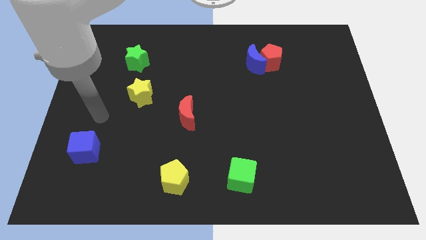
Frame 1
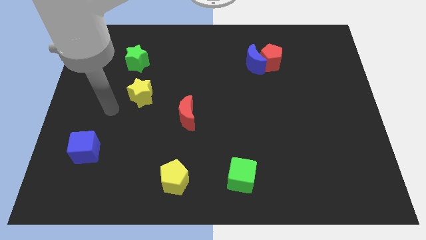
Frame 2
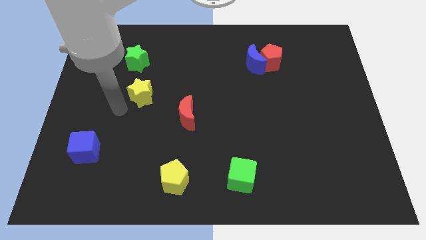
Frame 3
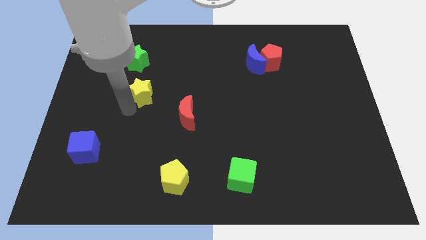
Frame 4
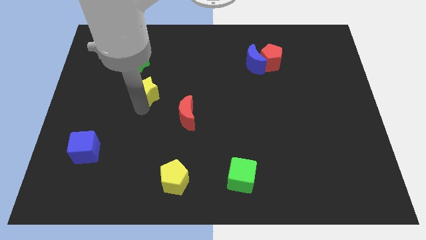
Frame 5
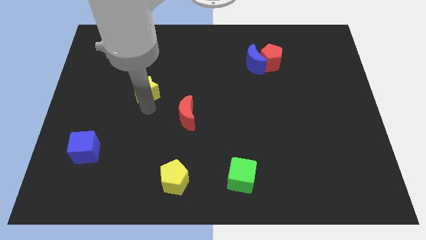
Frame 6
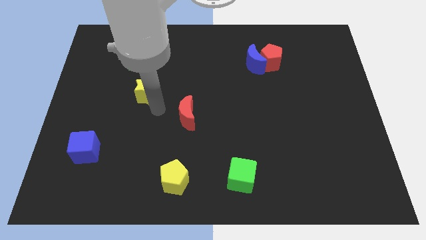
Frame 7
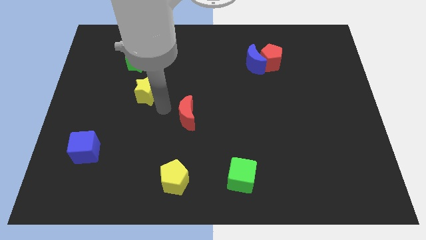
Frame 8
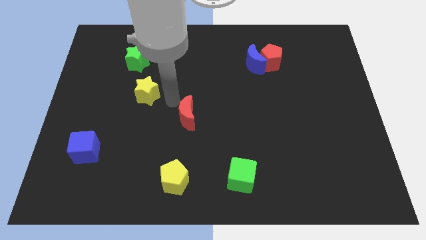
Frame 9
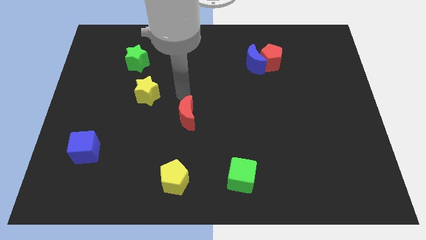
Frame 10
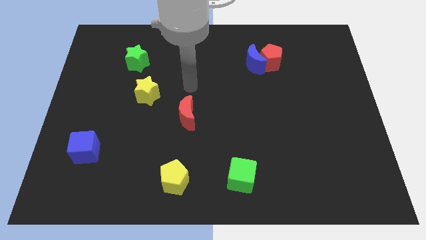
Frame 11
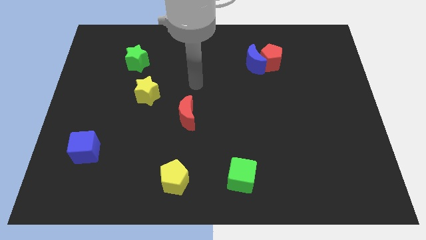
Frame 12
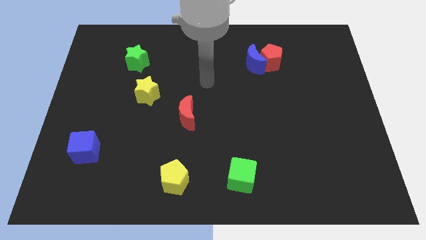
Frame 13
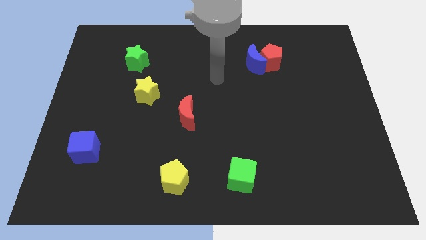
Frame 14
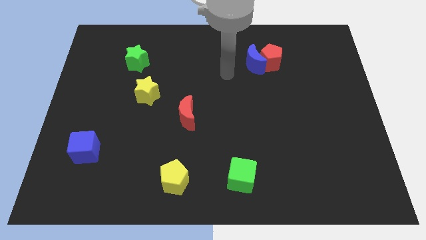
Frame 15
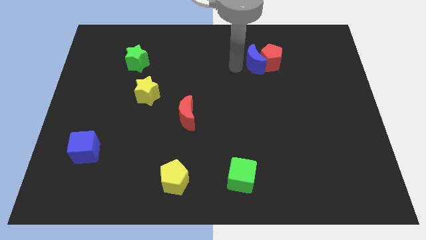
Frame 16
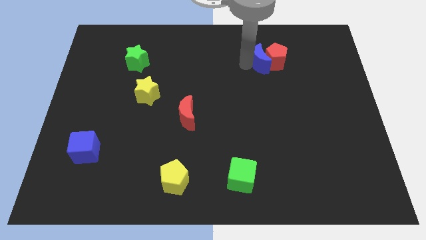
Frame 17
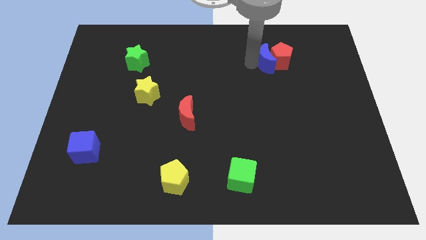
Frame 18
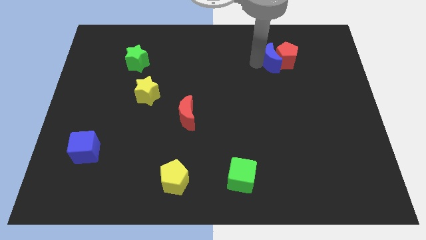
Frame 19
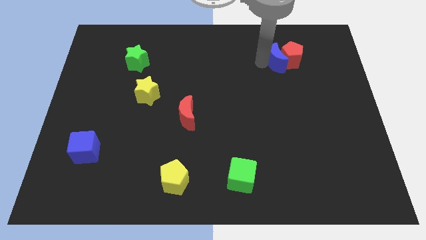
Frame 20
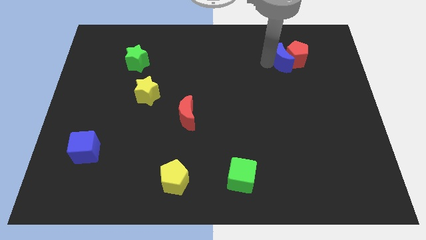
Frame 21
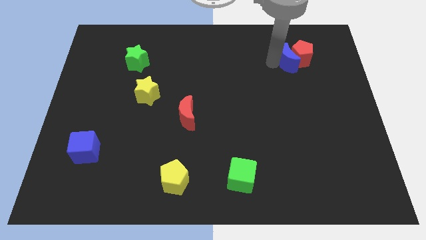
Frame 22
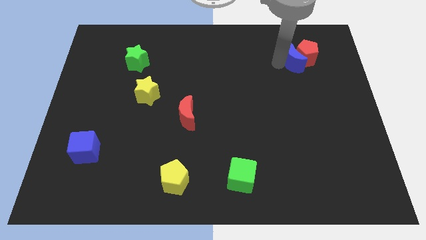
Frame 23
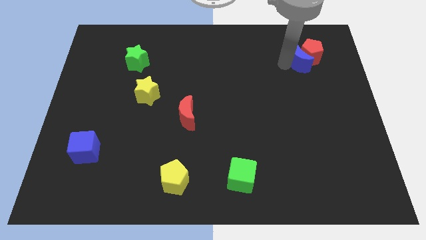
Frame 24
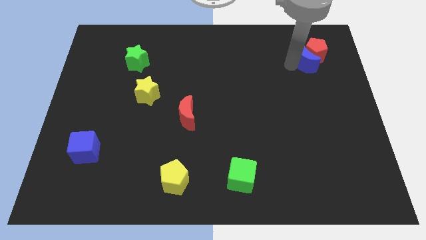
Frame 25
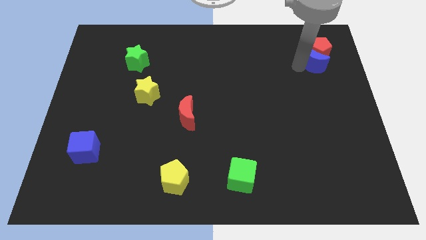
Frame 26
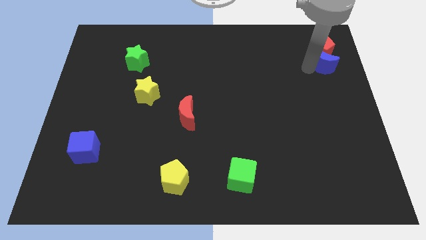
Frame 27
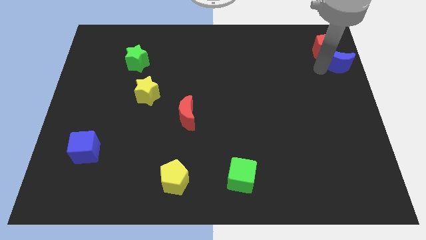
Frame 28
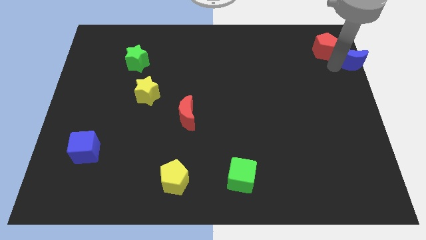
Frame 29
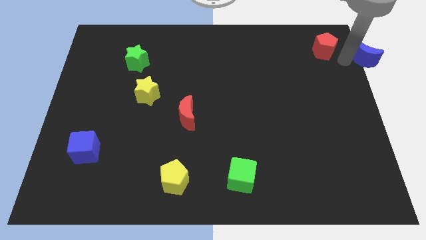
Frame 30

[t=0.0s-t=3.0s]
pull the red pentagon apart from the blue moon

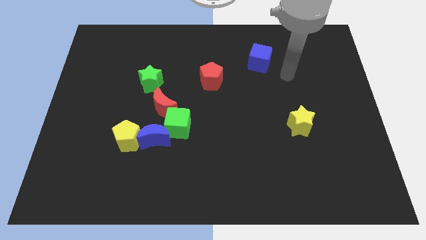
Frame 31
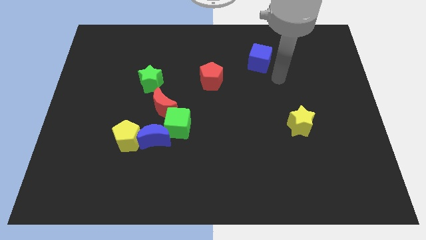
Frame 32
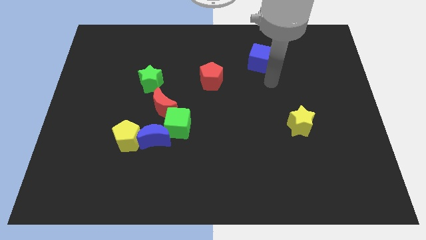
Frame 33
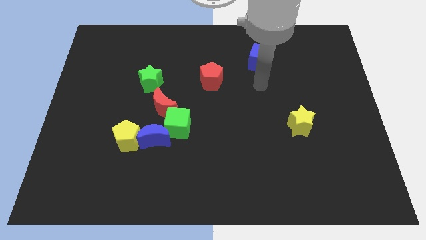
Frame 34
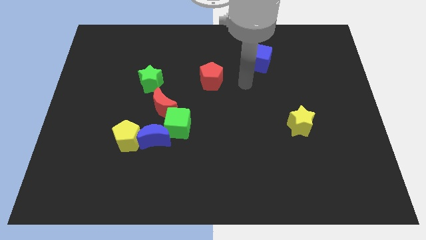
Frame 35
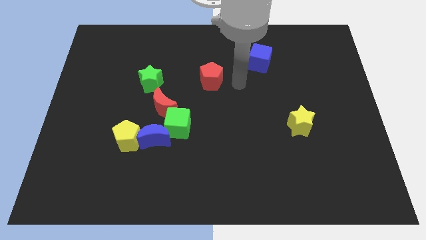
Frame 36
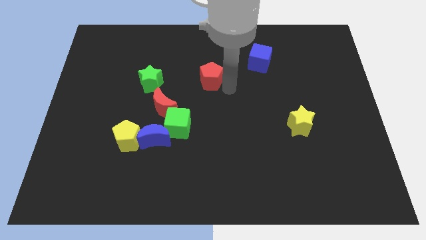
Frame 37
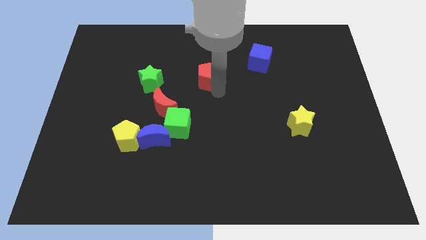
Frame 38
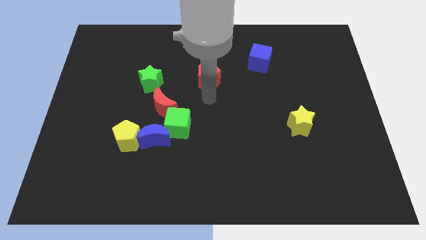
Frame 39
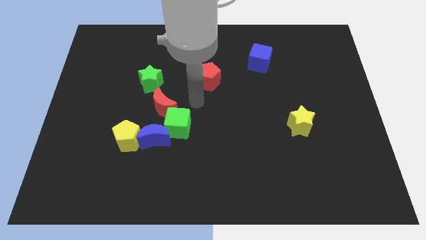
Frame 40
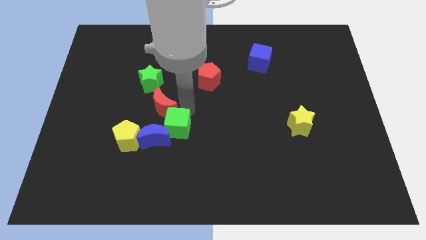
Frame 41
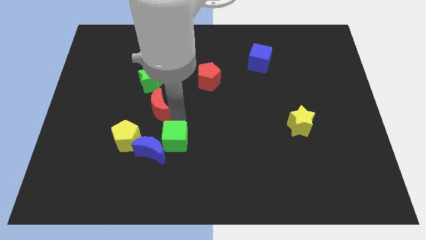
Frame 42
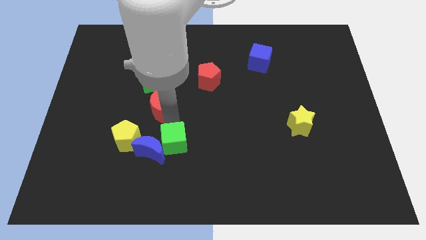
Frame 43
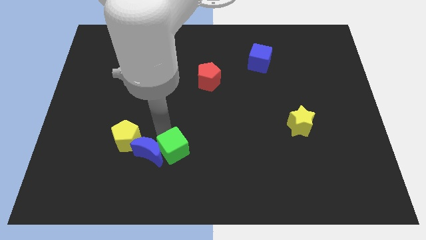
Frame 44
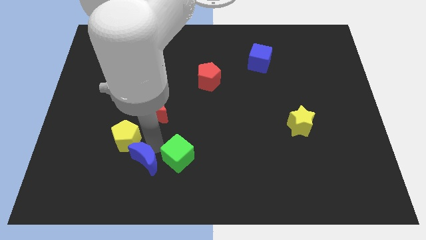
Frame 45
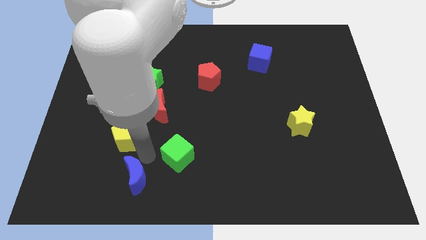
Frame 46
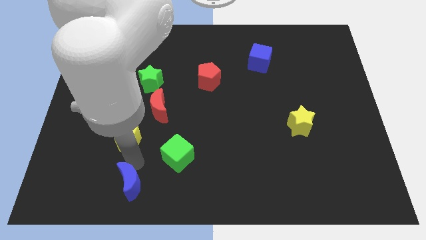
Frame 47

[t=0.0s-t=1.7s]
separate the yellow pentagon from the blue moon

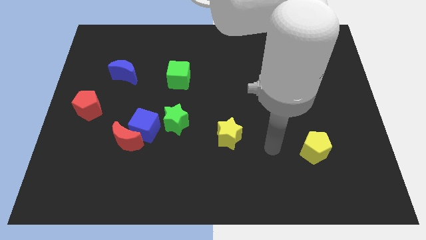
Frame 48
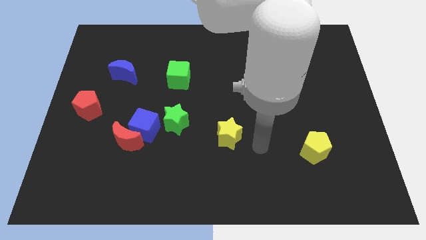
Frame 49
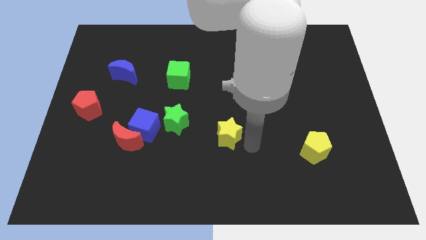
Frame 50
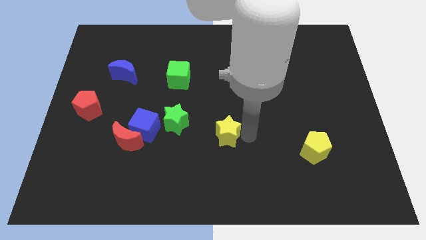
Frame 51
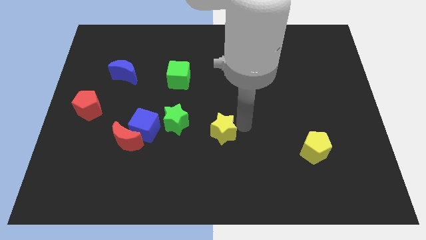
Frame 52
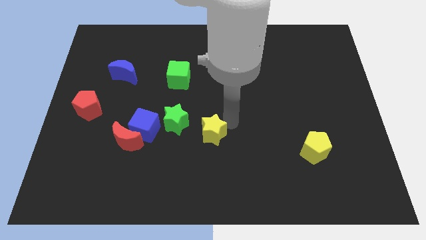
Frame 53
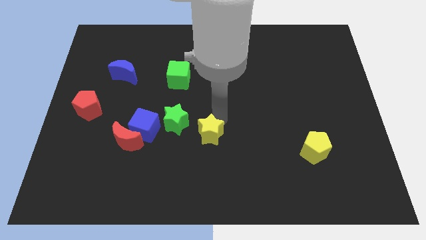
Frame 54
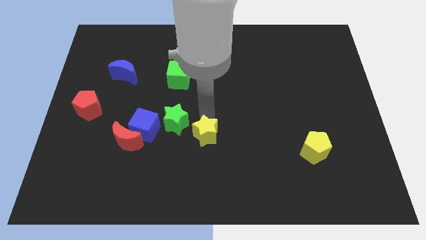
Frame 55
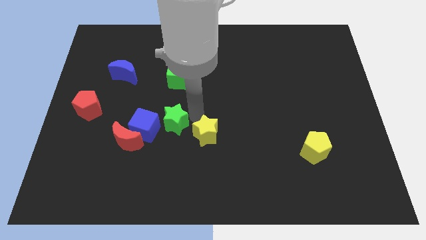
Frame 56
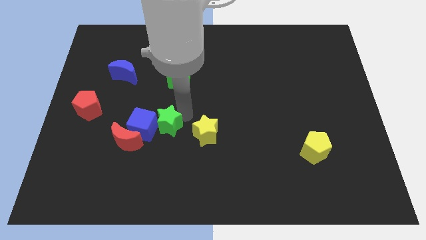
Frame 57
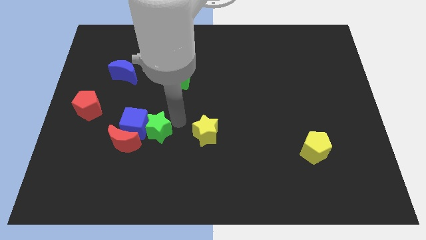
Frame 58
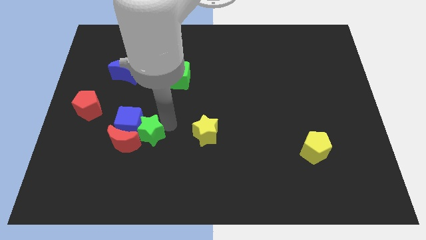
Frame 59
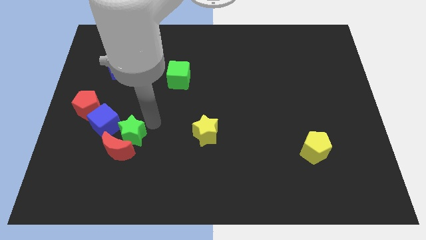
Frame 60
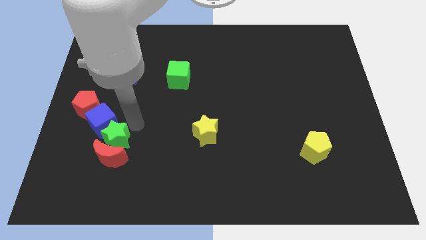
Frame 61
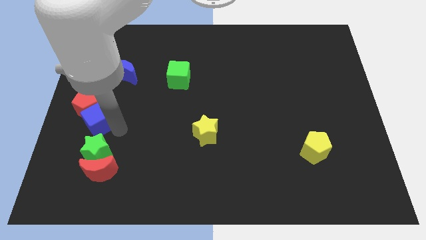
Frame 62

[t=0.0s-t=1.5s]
move the red moon away from the blue cube

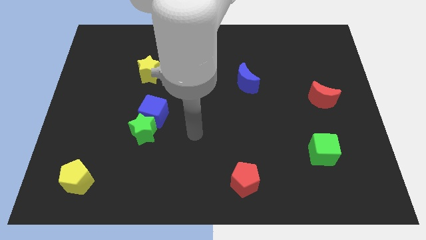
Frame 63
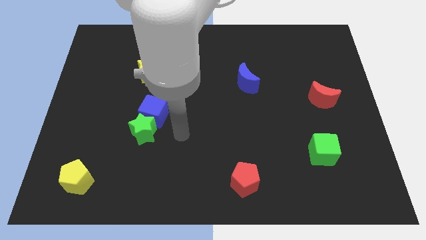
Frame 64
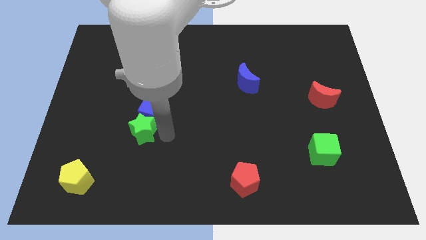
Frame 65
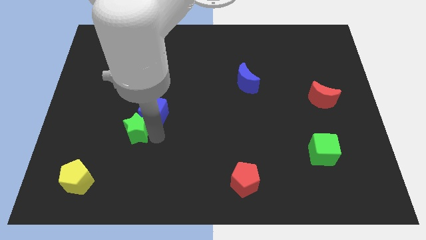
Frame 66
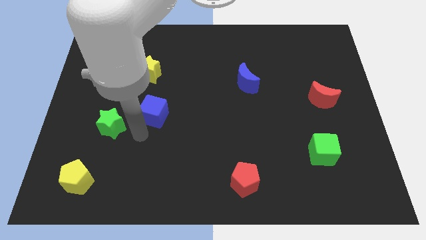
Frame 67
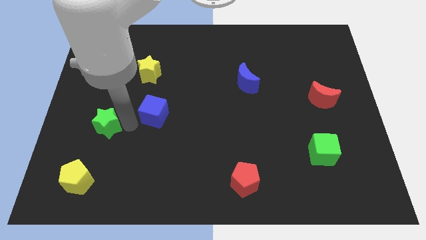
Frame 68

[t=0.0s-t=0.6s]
pull the blue cube apart from the green star

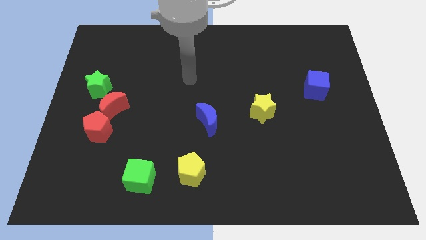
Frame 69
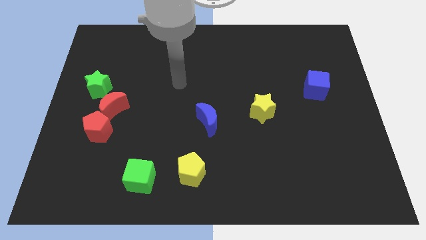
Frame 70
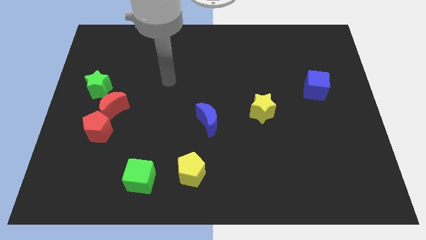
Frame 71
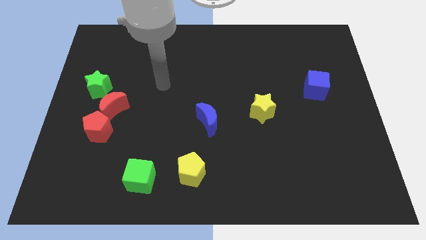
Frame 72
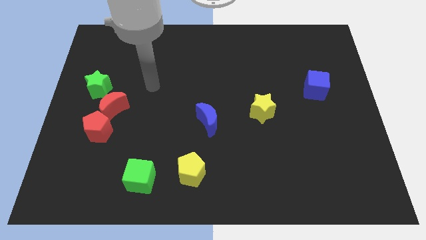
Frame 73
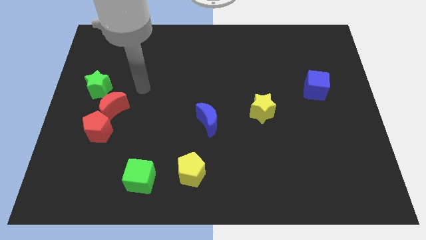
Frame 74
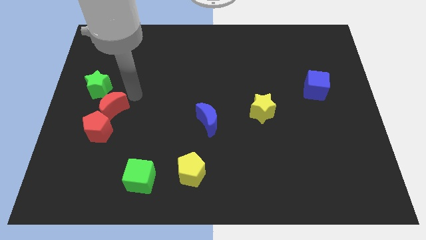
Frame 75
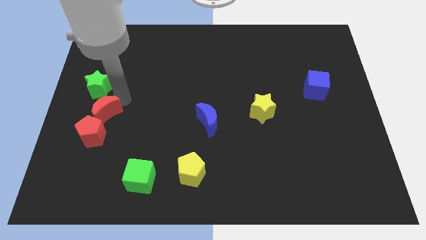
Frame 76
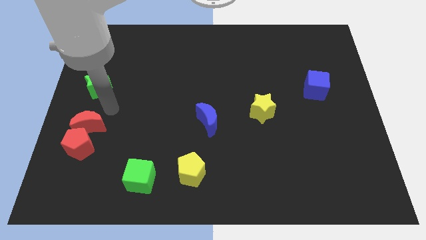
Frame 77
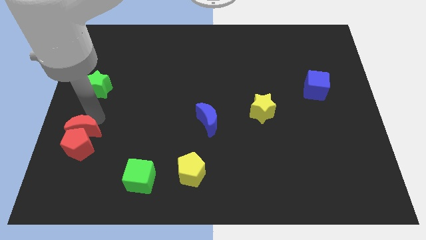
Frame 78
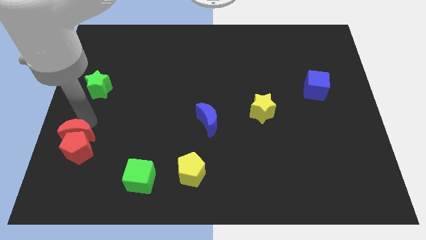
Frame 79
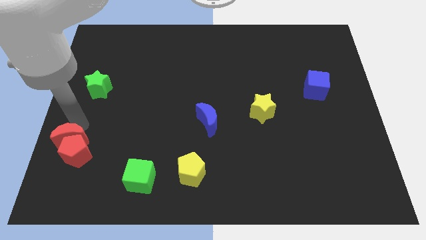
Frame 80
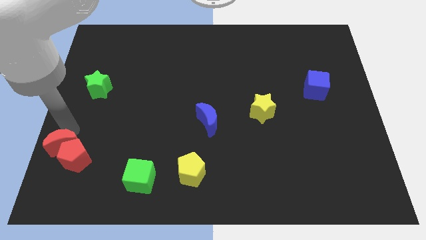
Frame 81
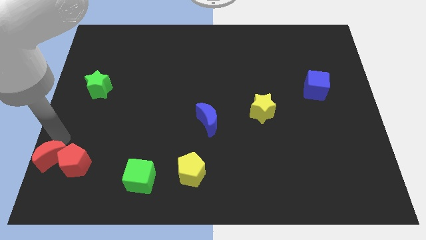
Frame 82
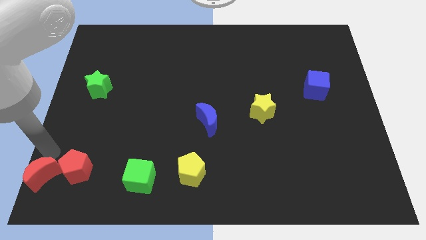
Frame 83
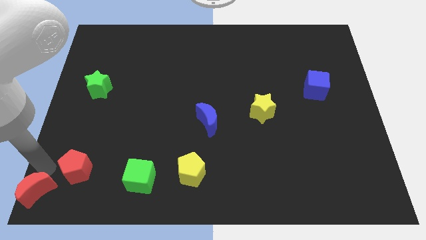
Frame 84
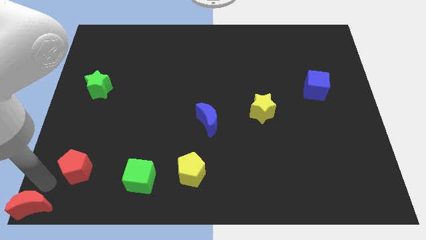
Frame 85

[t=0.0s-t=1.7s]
separate the red pentagon from the red moon

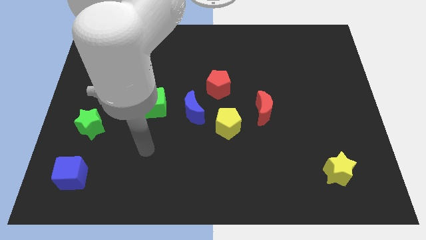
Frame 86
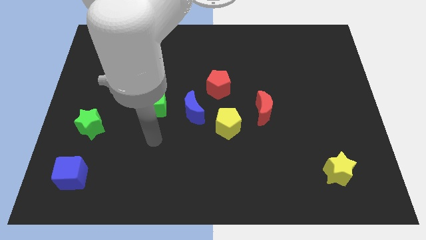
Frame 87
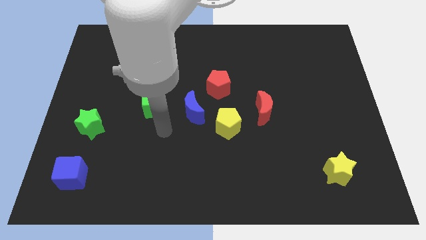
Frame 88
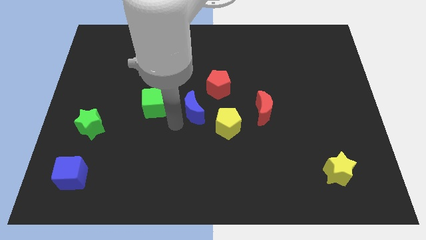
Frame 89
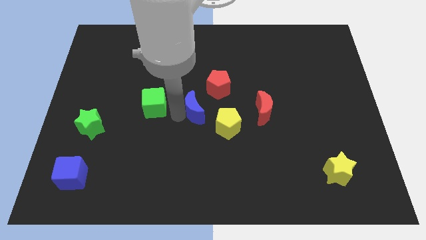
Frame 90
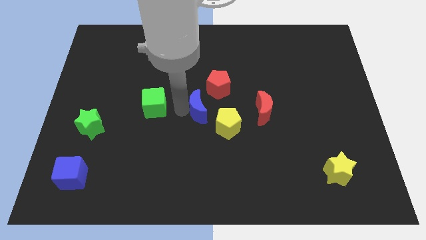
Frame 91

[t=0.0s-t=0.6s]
pull the green cube apart from the blue moon

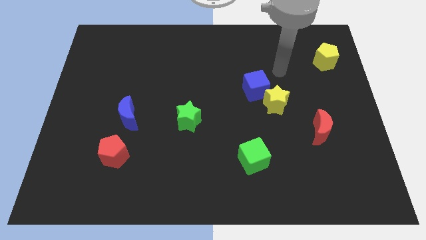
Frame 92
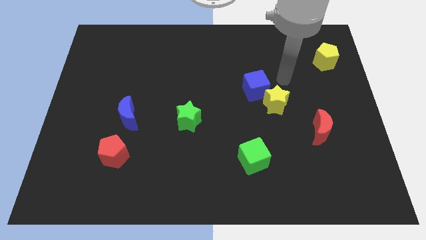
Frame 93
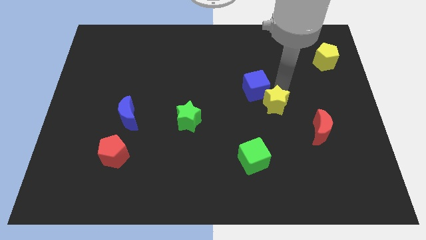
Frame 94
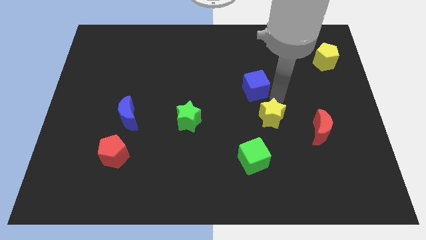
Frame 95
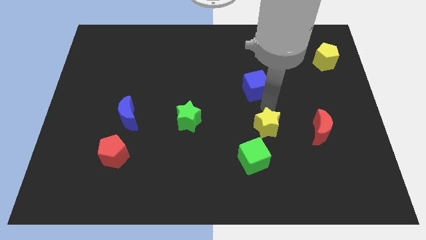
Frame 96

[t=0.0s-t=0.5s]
move the blue cube away from the yellow star
